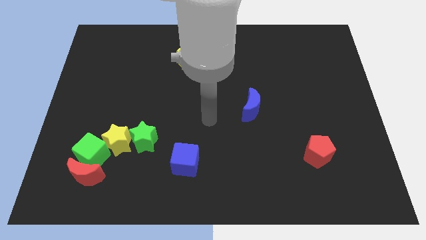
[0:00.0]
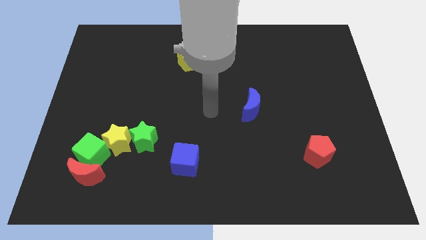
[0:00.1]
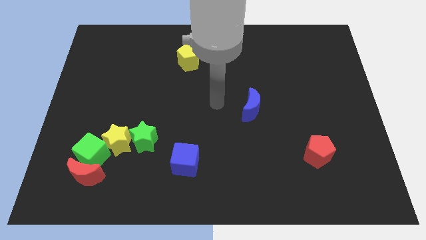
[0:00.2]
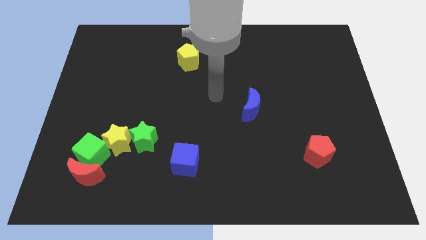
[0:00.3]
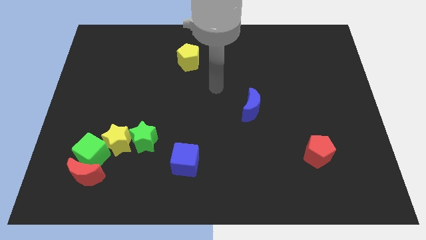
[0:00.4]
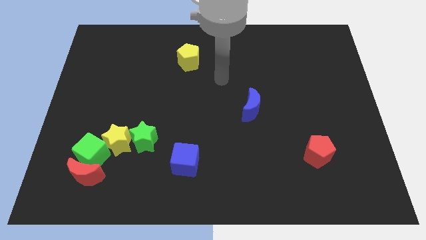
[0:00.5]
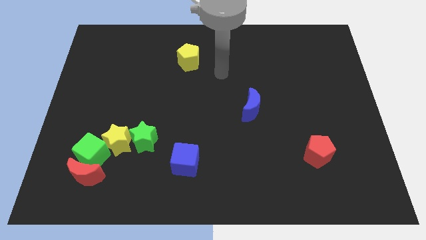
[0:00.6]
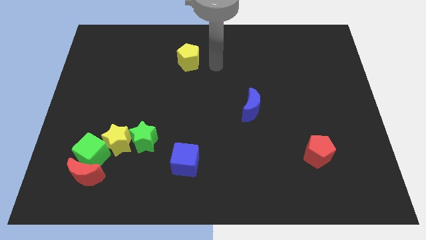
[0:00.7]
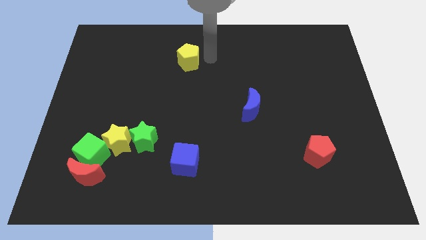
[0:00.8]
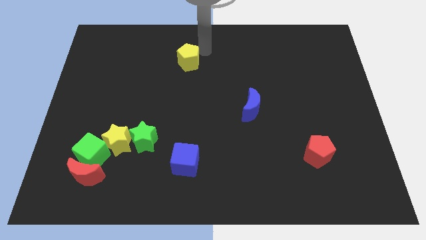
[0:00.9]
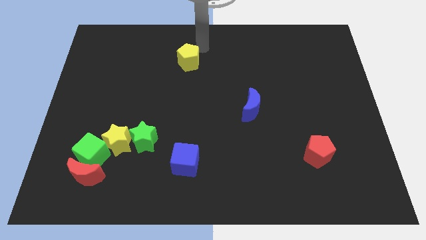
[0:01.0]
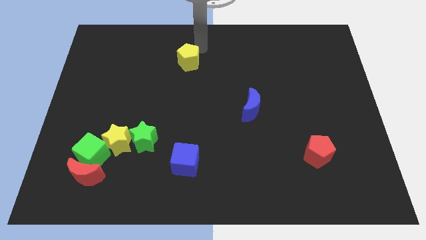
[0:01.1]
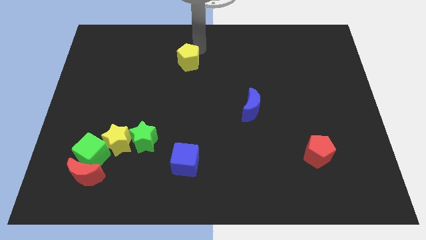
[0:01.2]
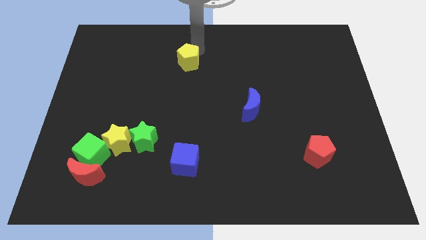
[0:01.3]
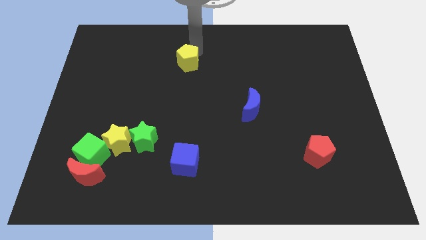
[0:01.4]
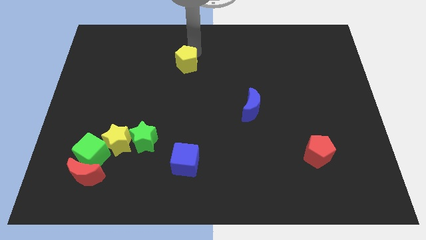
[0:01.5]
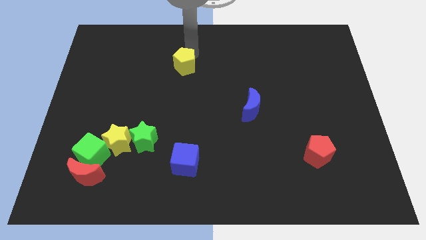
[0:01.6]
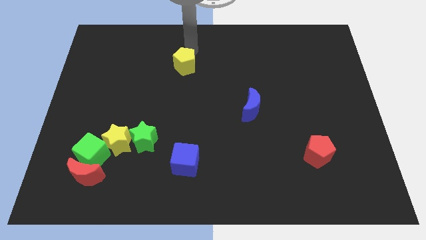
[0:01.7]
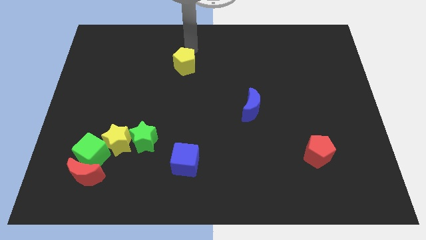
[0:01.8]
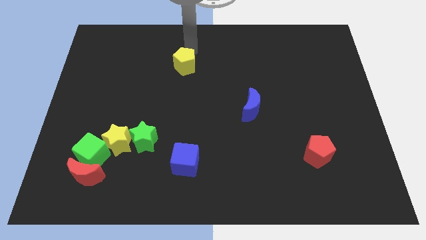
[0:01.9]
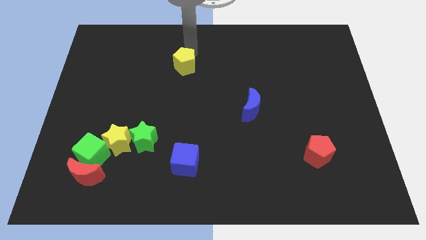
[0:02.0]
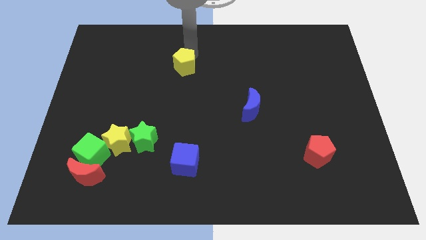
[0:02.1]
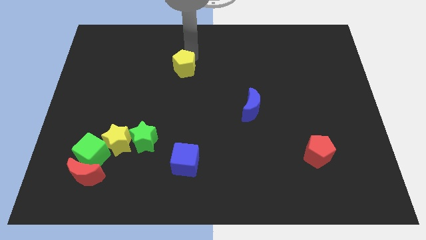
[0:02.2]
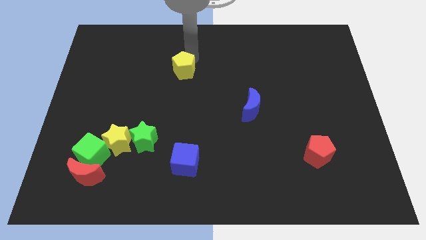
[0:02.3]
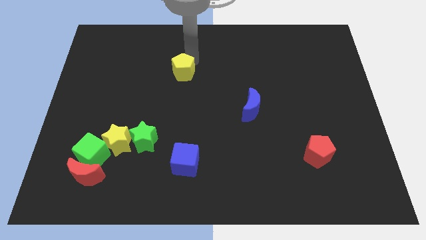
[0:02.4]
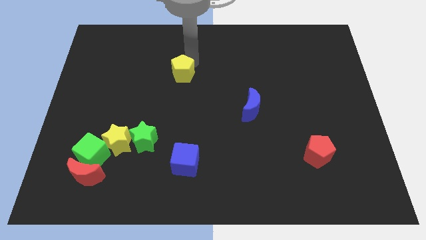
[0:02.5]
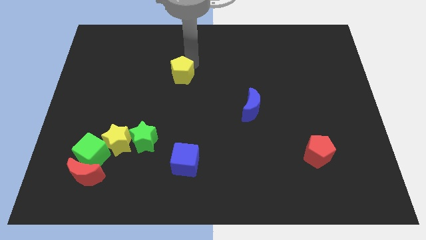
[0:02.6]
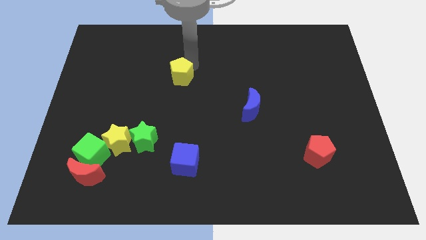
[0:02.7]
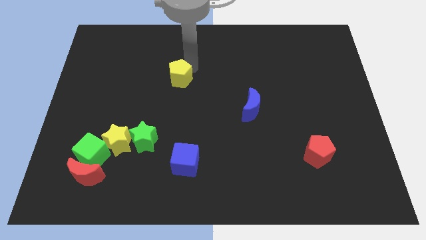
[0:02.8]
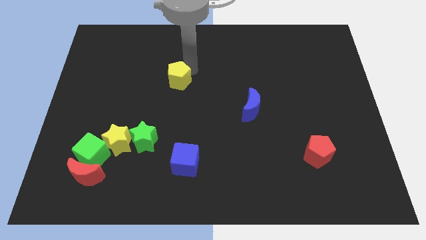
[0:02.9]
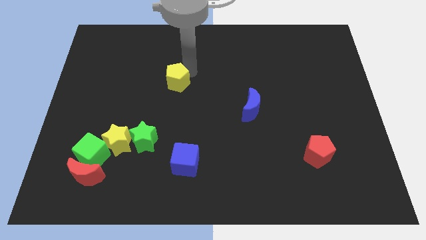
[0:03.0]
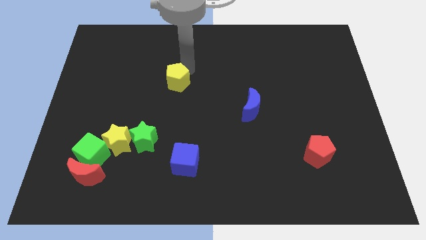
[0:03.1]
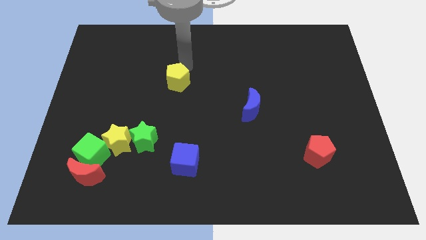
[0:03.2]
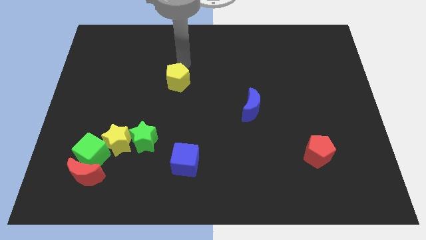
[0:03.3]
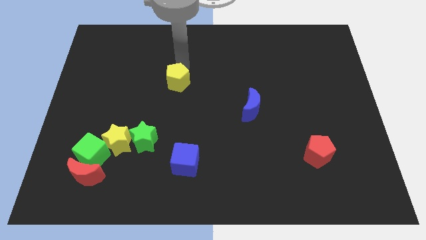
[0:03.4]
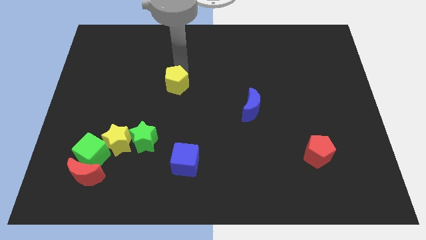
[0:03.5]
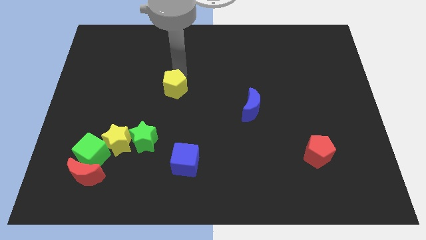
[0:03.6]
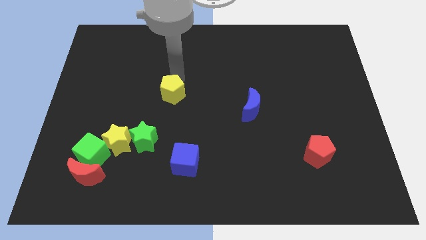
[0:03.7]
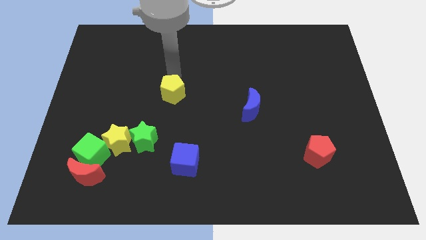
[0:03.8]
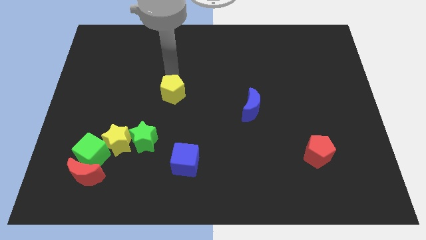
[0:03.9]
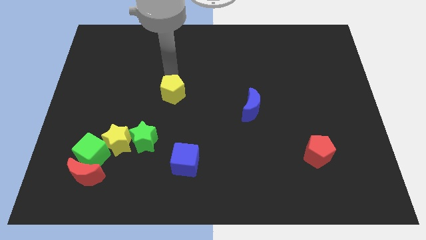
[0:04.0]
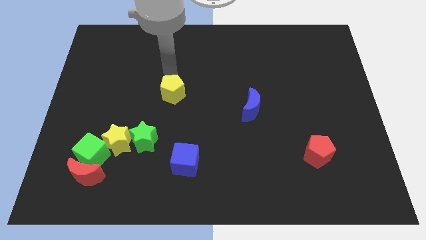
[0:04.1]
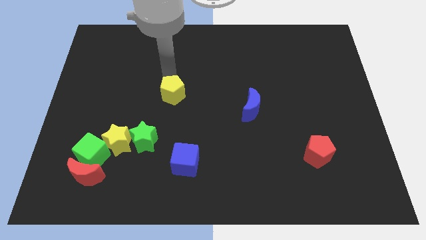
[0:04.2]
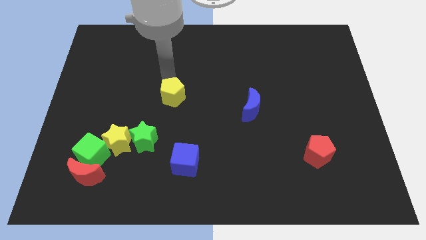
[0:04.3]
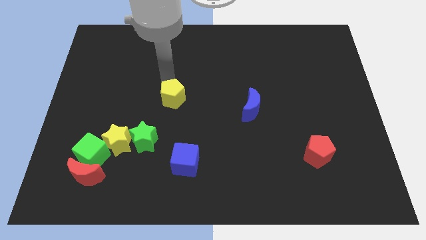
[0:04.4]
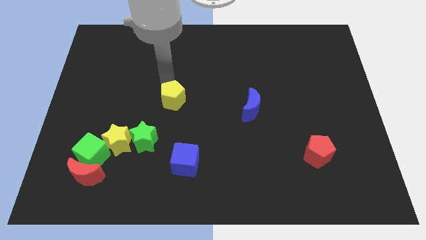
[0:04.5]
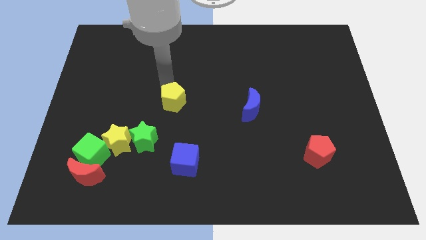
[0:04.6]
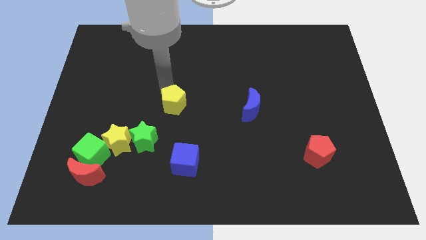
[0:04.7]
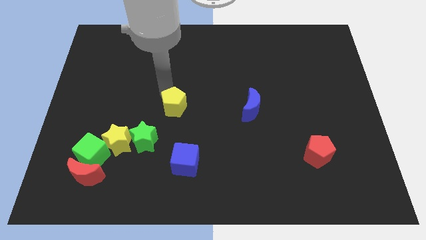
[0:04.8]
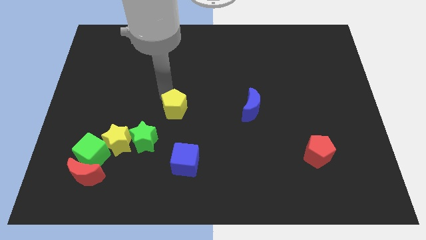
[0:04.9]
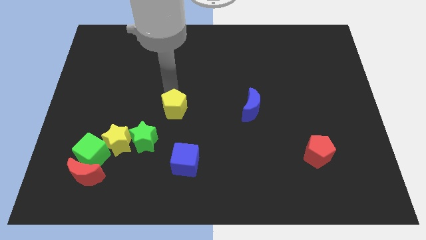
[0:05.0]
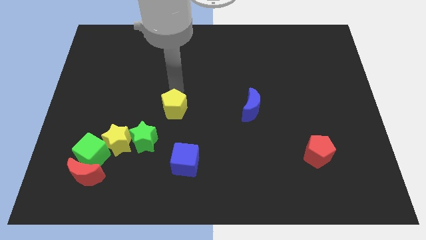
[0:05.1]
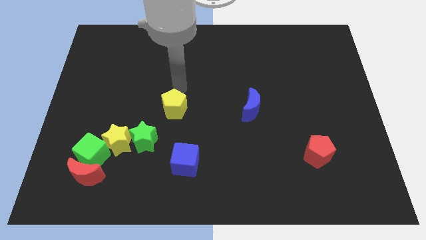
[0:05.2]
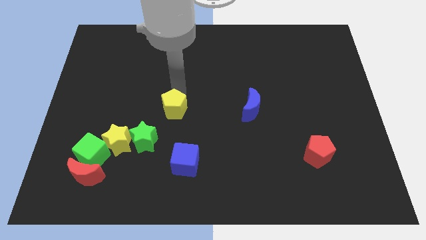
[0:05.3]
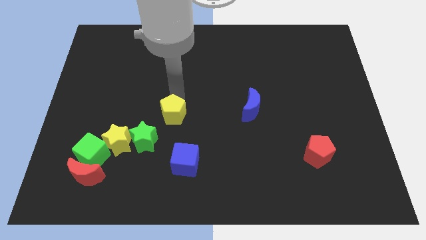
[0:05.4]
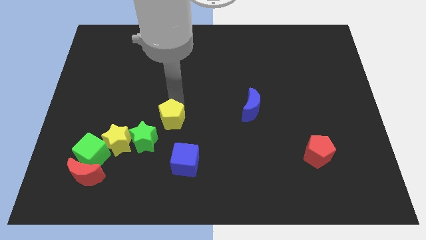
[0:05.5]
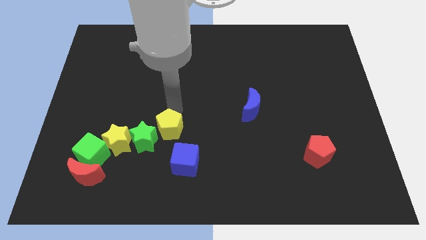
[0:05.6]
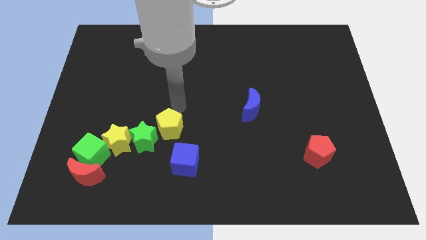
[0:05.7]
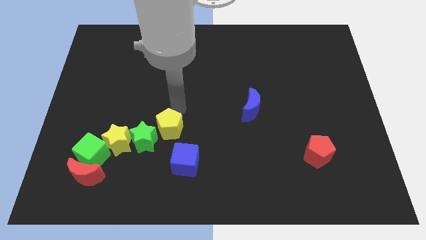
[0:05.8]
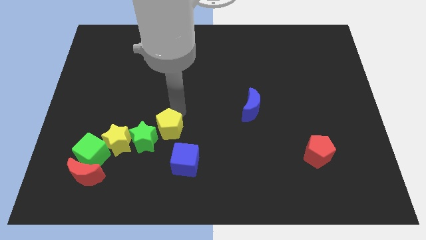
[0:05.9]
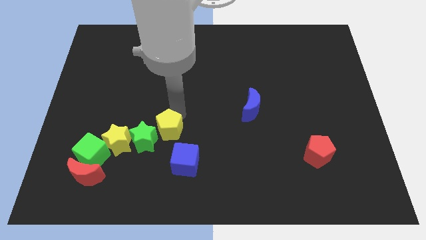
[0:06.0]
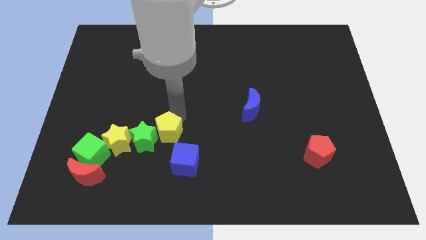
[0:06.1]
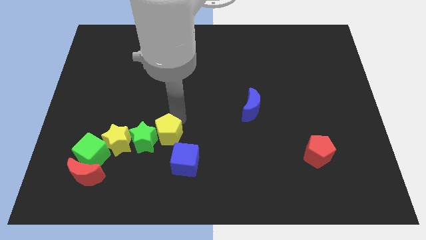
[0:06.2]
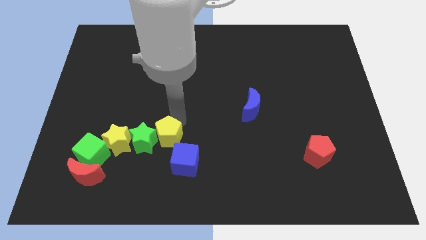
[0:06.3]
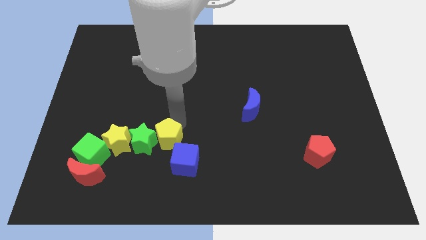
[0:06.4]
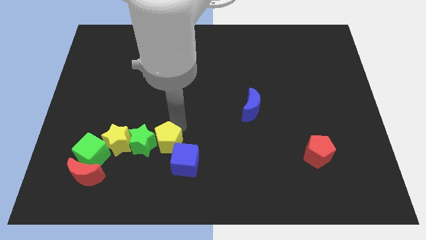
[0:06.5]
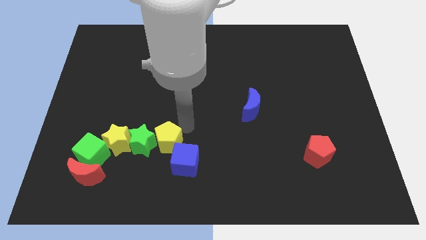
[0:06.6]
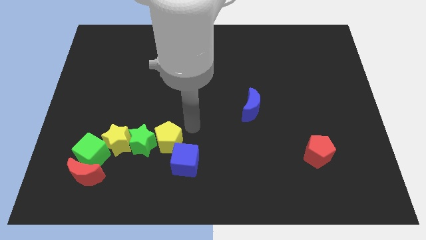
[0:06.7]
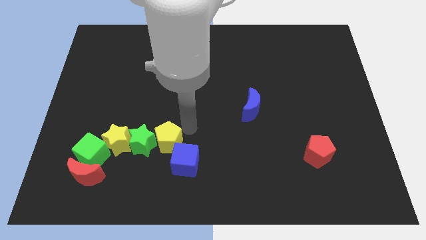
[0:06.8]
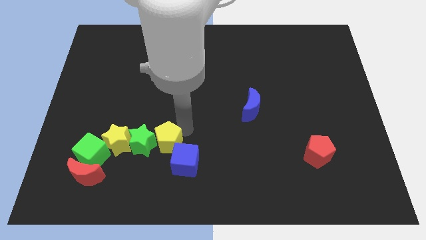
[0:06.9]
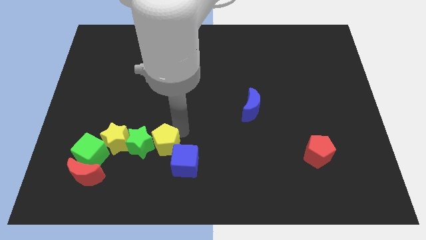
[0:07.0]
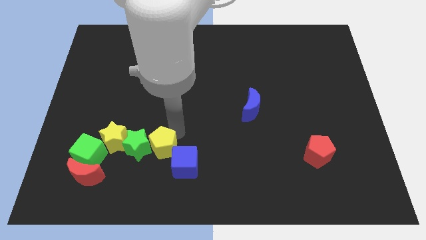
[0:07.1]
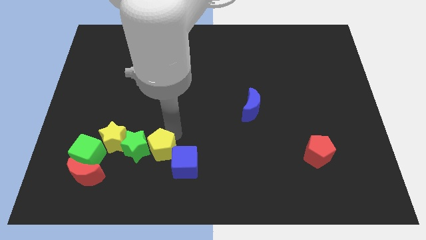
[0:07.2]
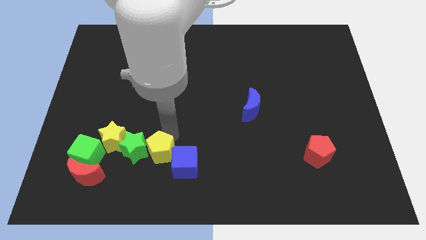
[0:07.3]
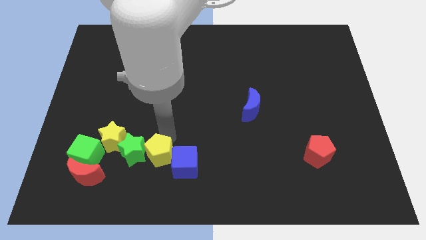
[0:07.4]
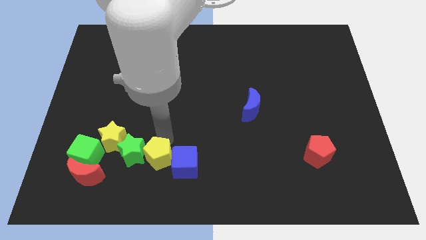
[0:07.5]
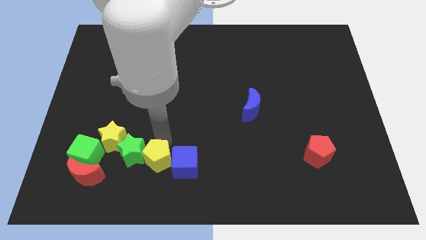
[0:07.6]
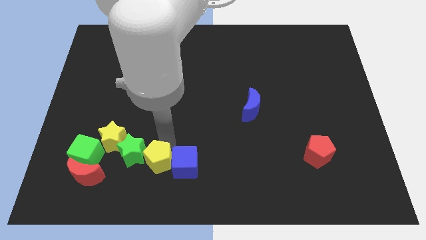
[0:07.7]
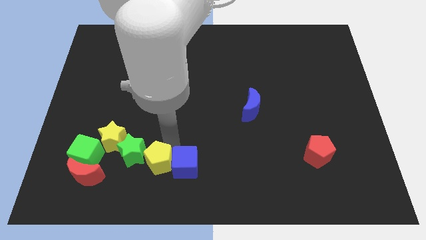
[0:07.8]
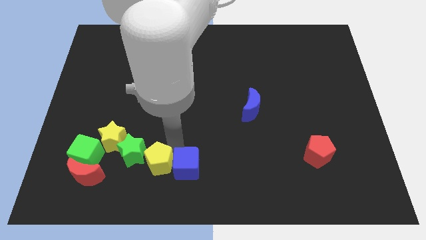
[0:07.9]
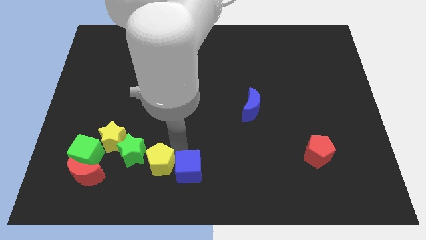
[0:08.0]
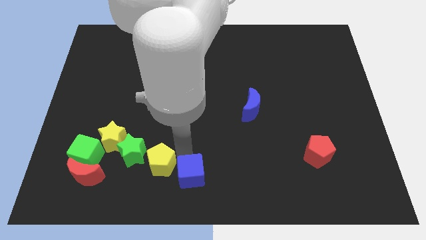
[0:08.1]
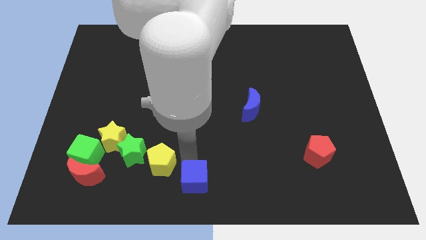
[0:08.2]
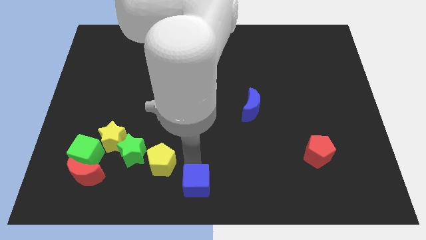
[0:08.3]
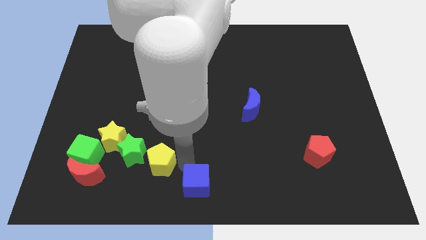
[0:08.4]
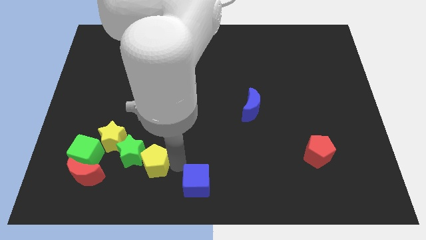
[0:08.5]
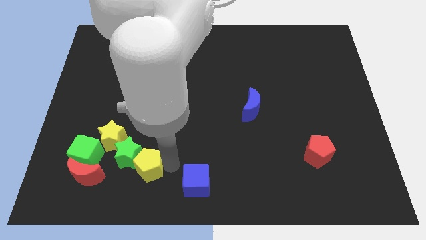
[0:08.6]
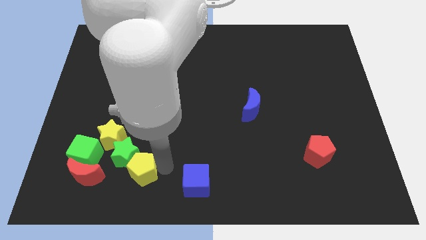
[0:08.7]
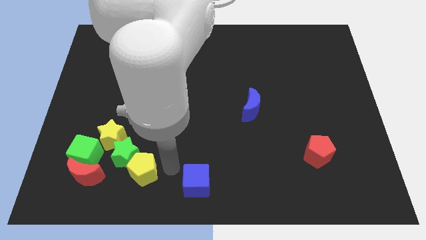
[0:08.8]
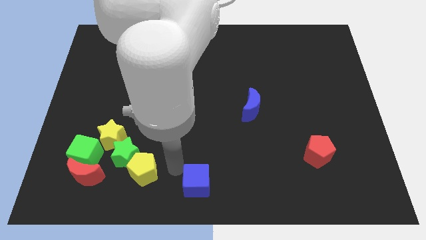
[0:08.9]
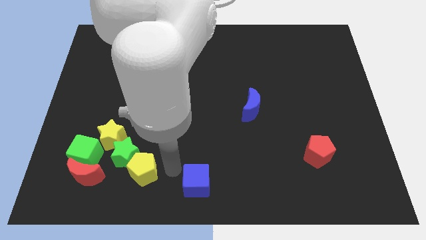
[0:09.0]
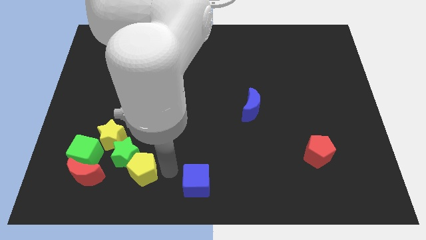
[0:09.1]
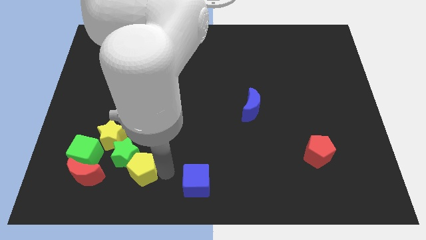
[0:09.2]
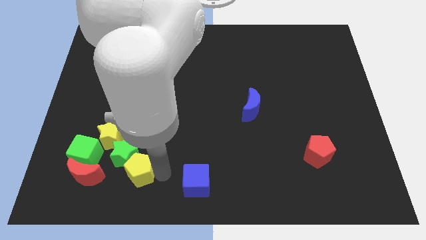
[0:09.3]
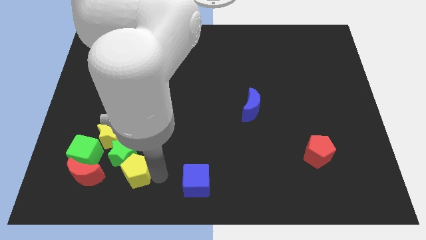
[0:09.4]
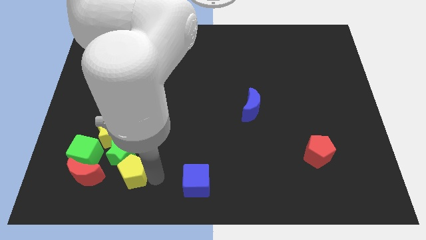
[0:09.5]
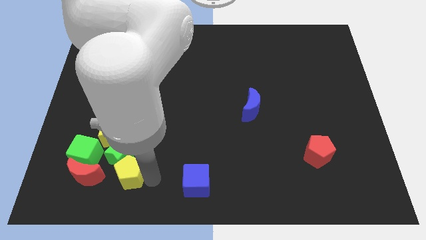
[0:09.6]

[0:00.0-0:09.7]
push the yellow pentagon to the bottom right of the green cube
